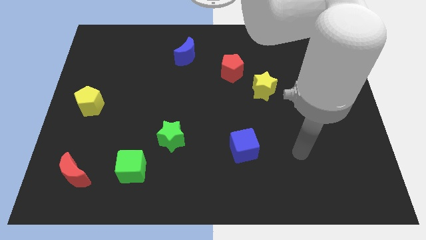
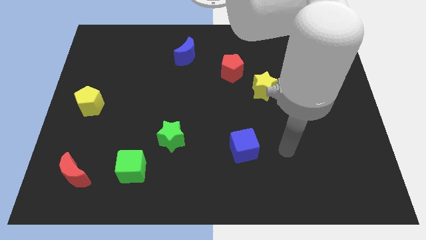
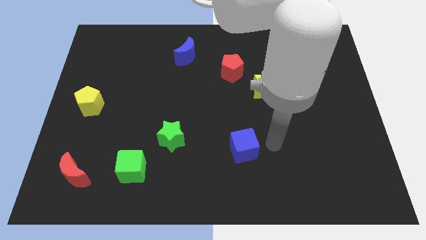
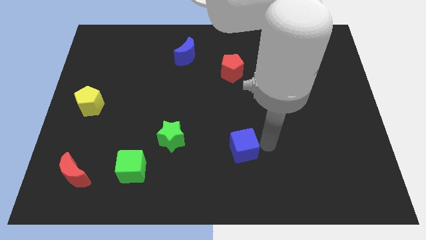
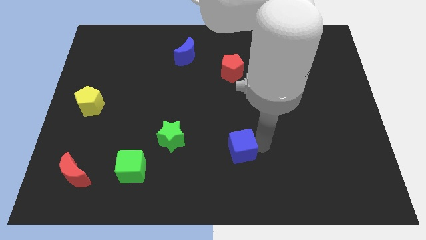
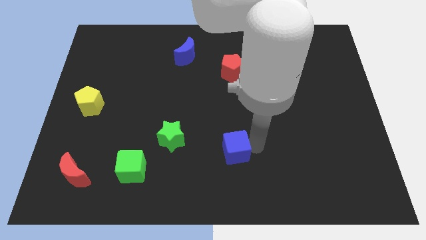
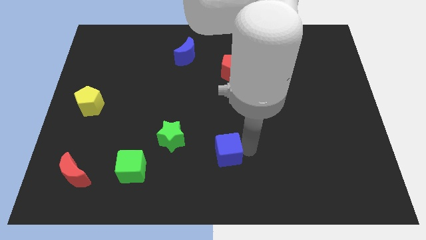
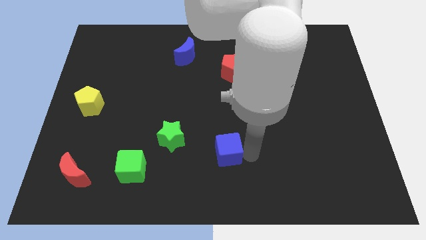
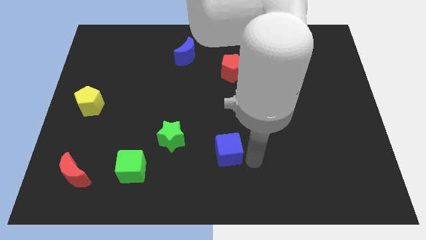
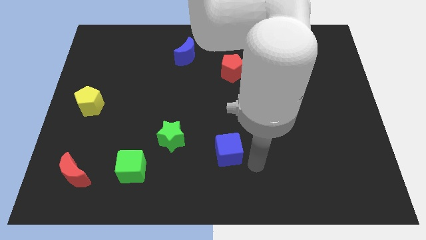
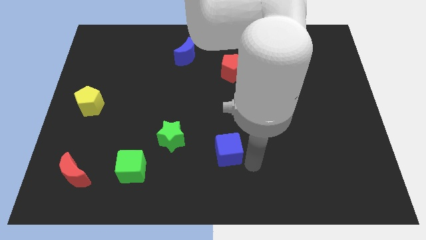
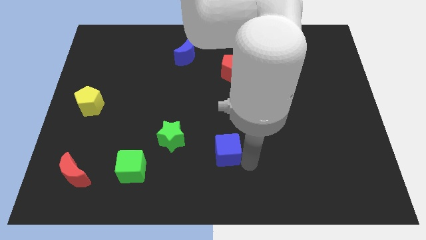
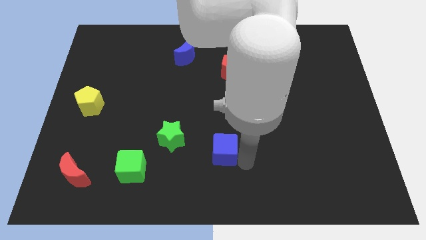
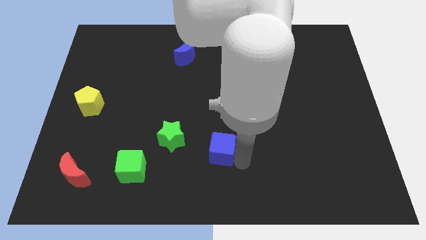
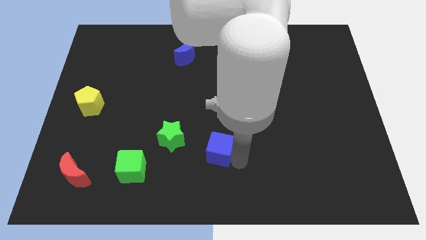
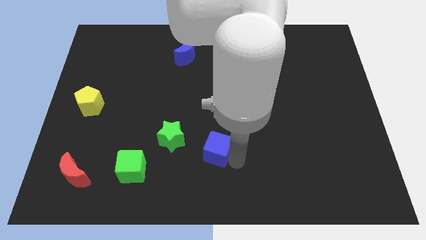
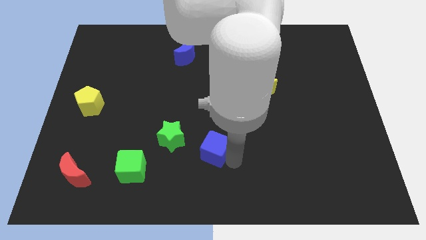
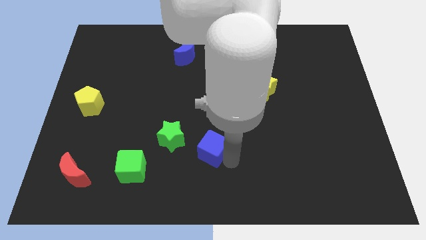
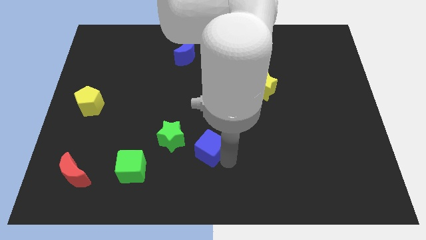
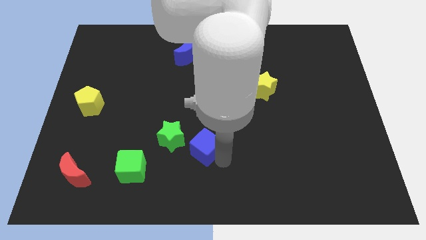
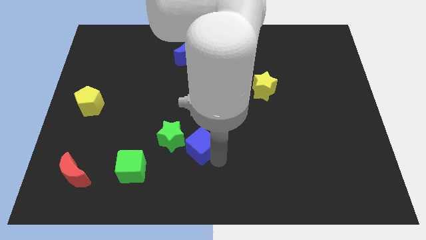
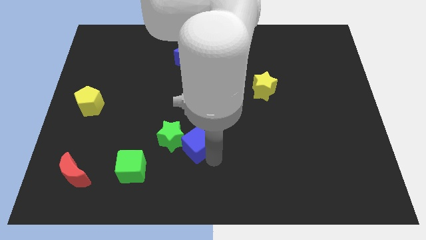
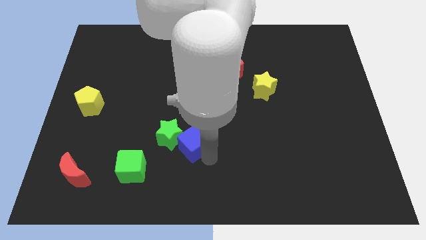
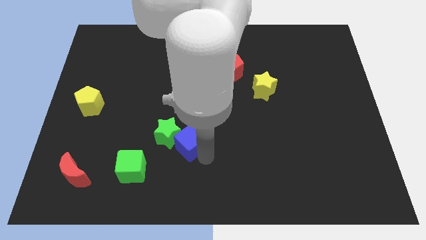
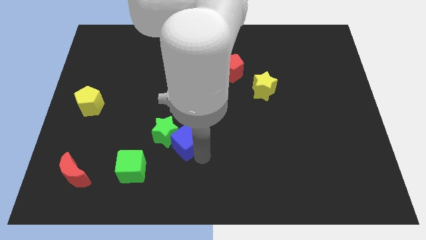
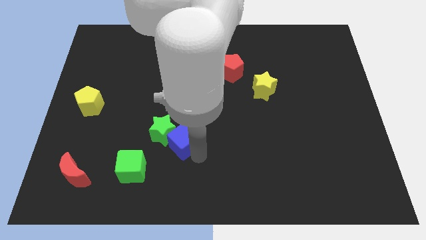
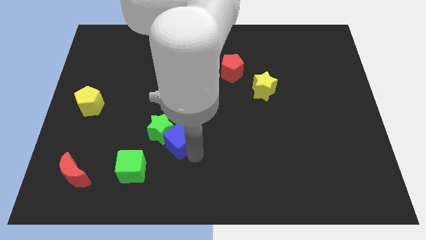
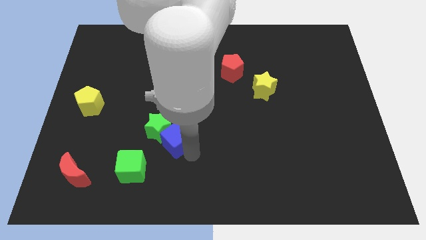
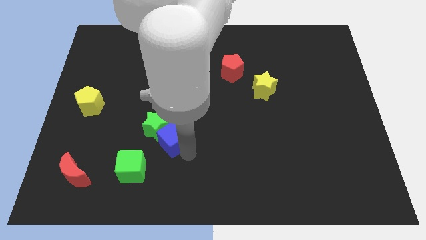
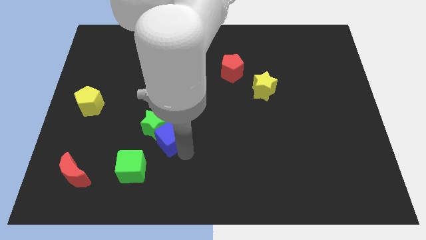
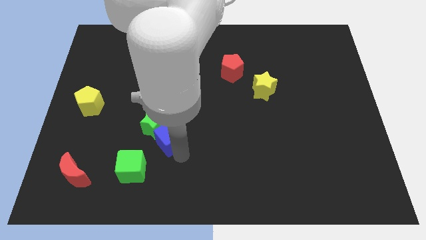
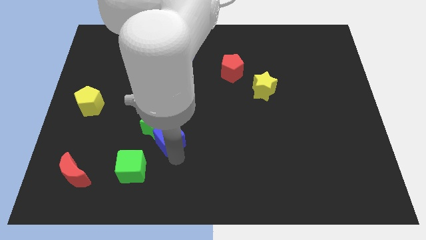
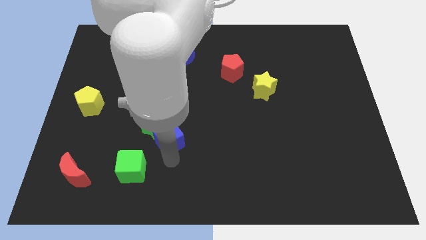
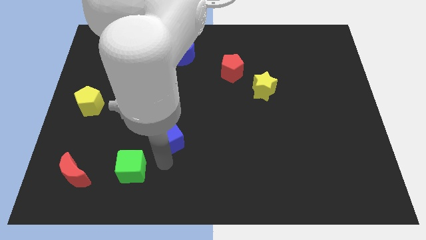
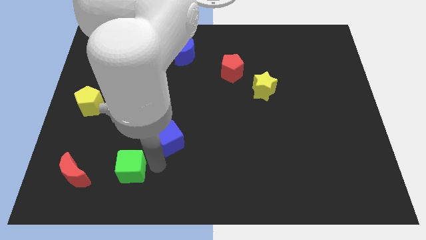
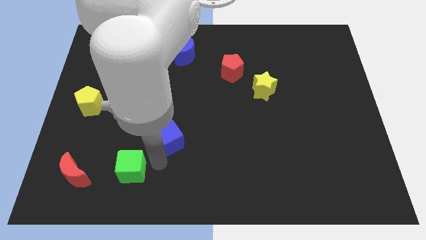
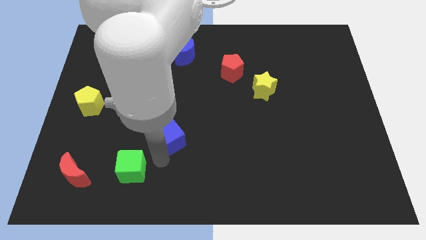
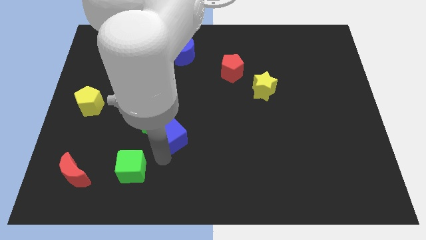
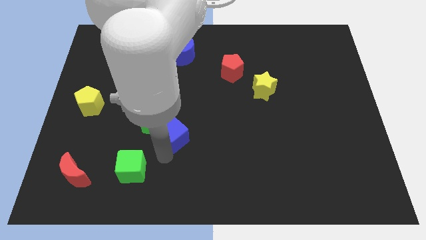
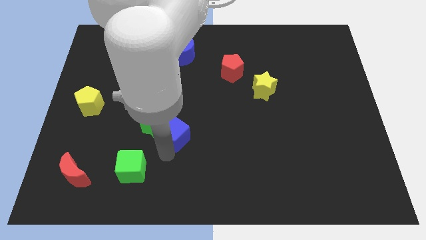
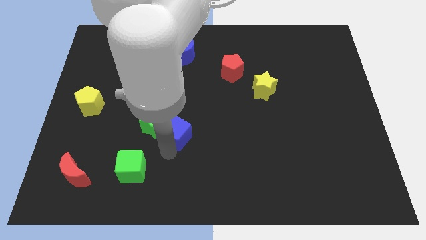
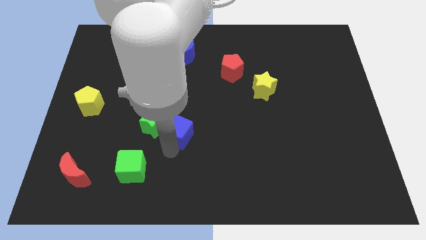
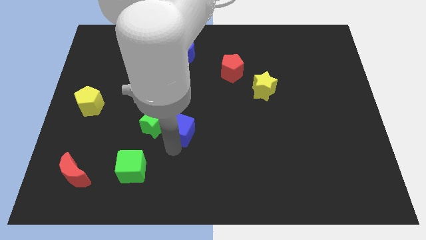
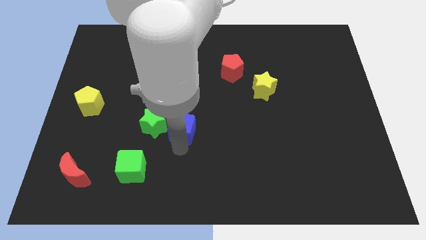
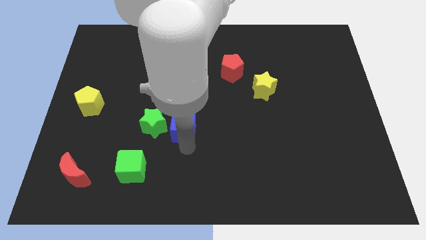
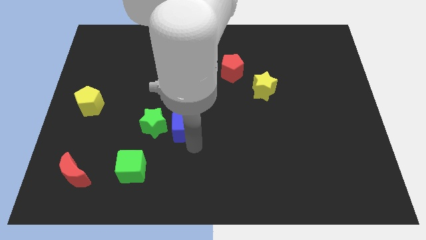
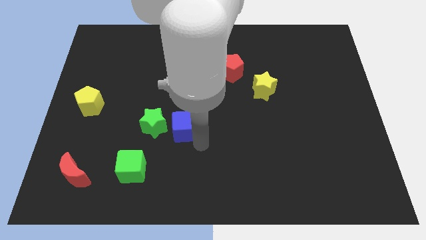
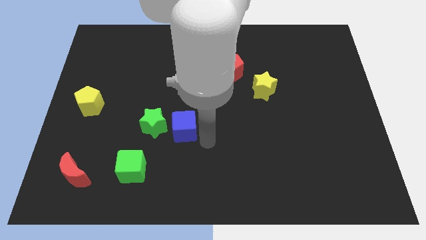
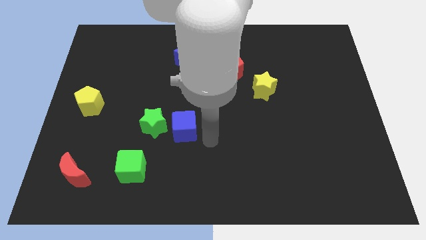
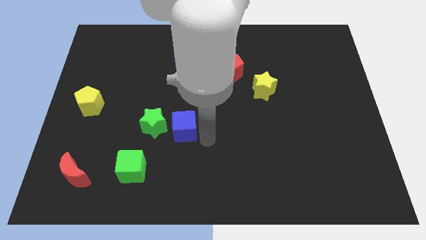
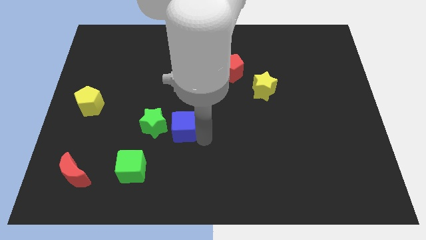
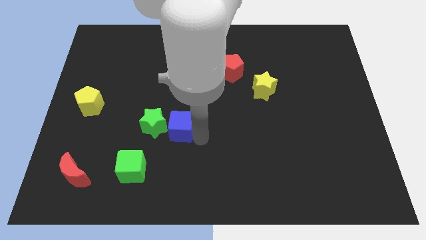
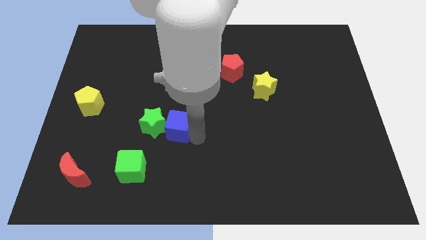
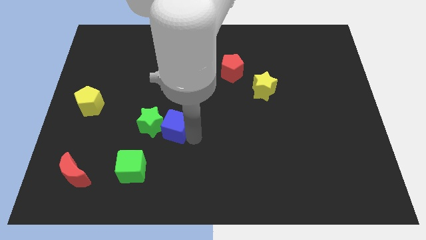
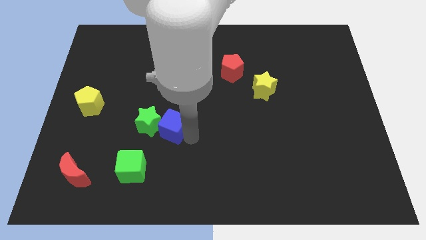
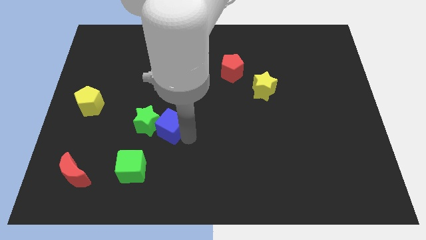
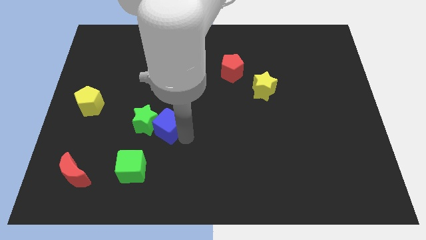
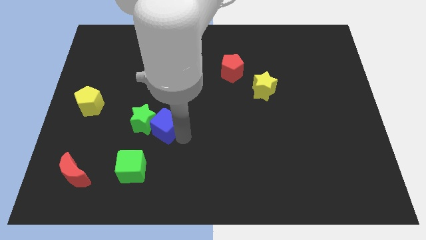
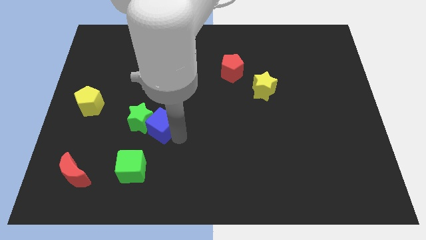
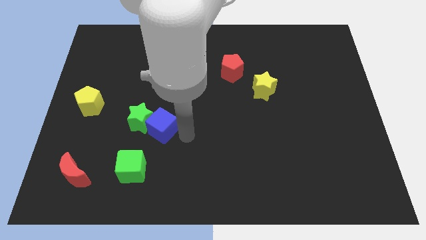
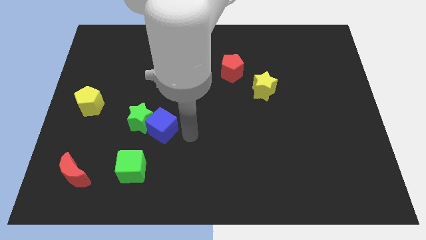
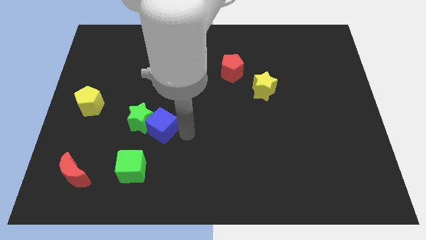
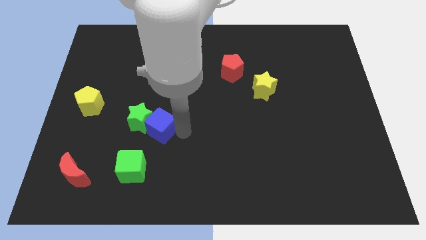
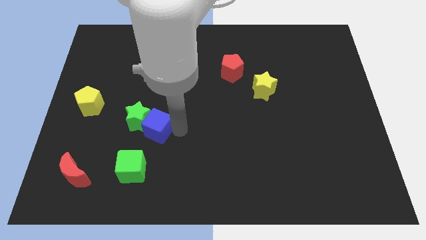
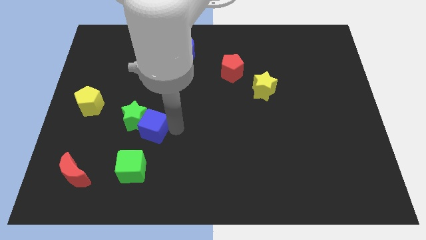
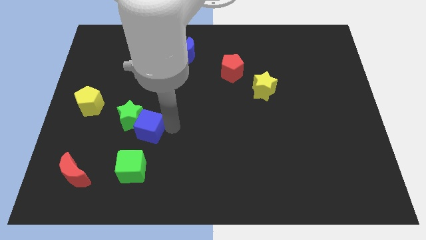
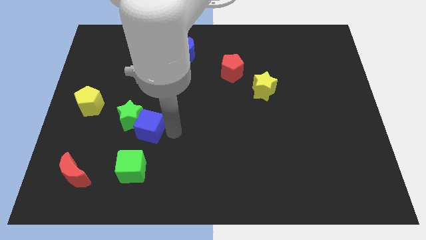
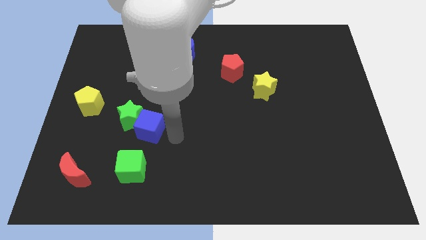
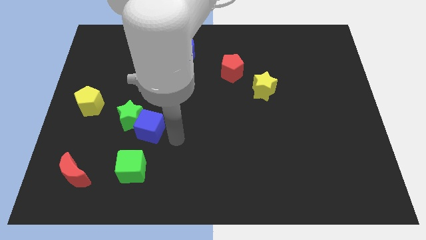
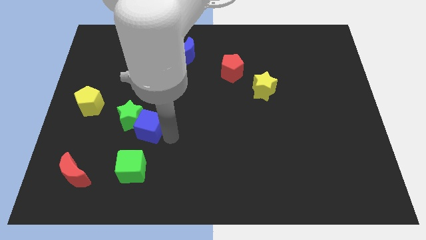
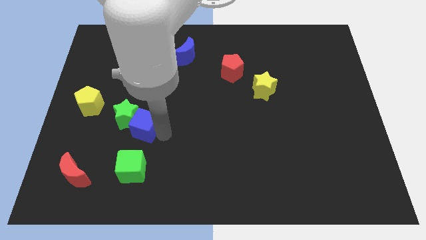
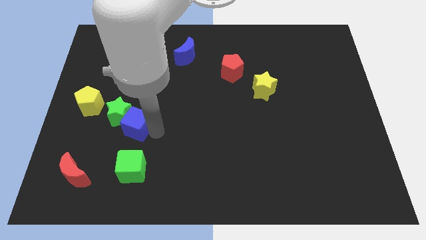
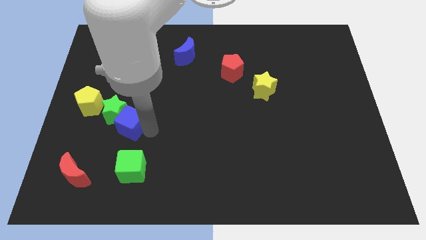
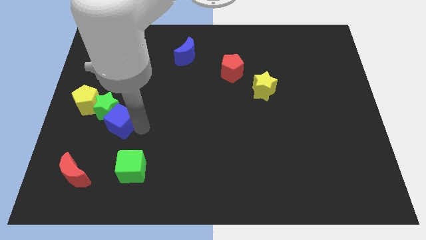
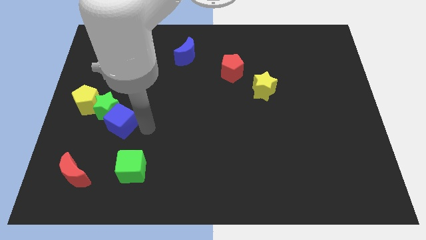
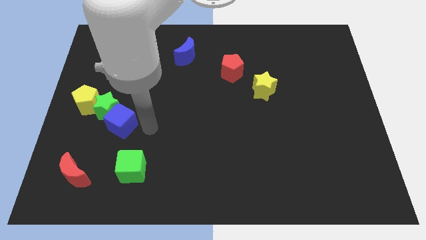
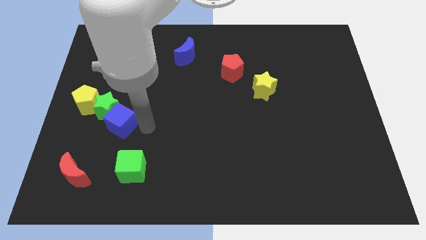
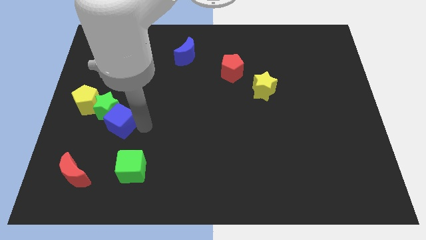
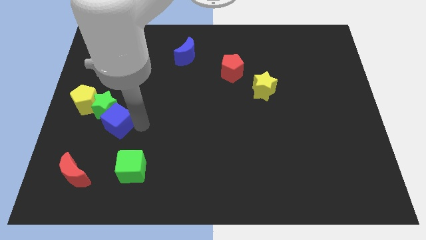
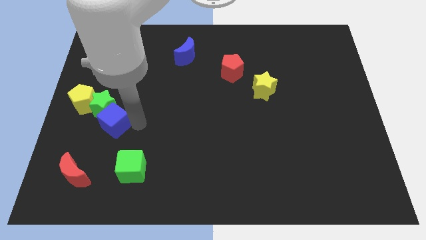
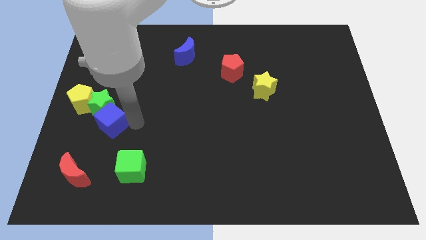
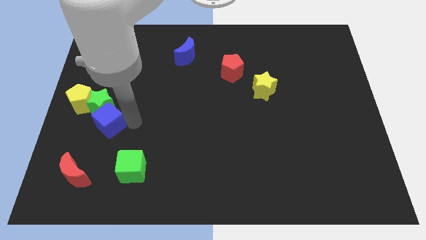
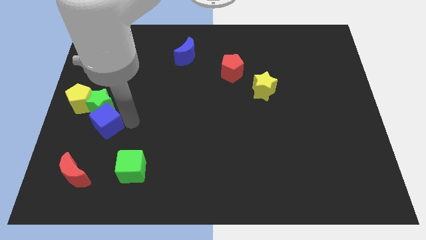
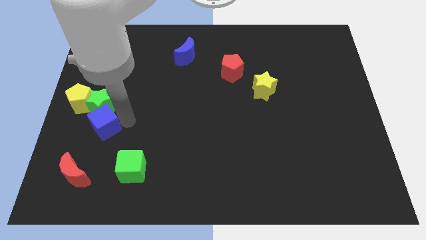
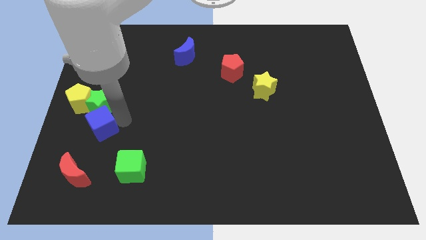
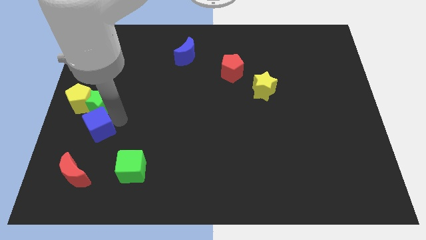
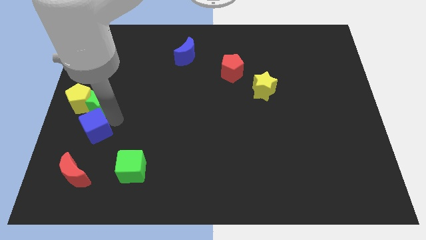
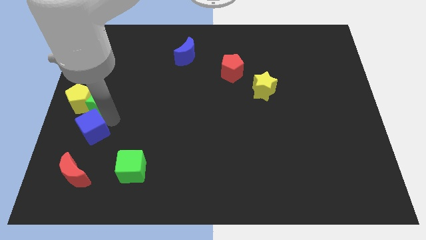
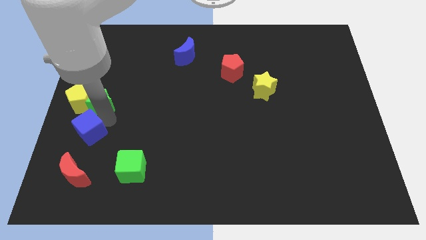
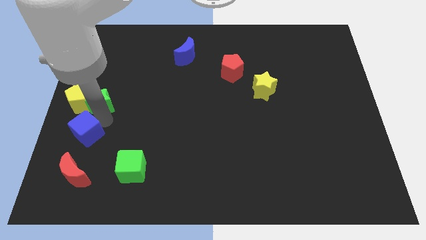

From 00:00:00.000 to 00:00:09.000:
move the blue cube to the left side
